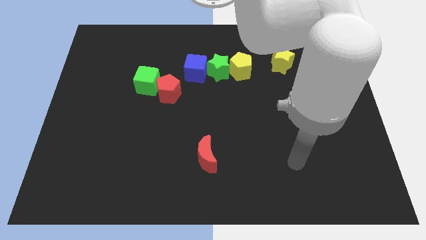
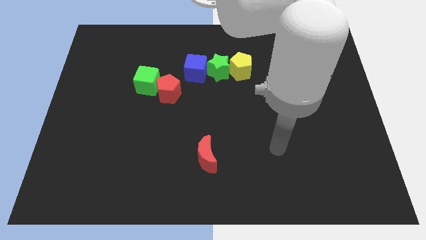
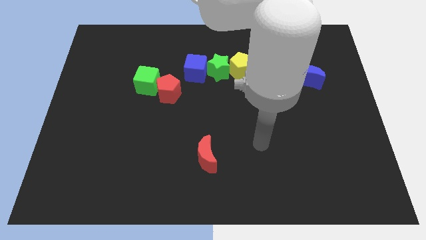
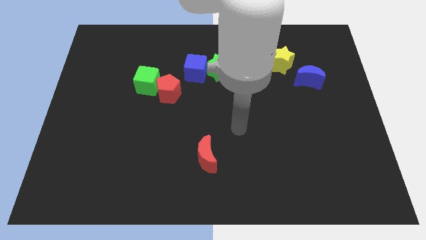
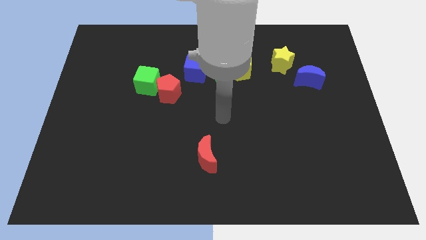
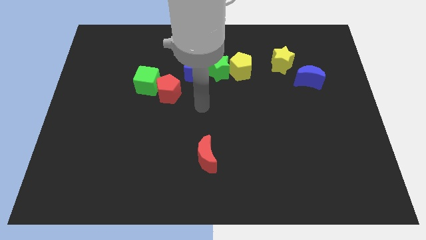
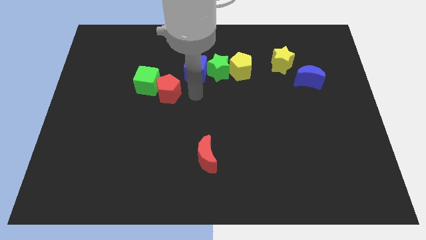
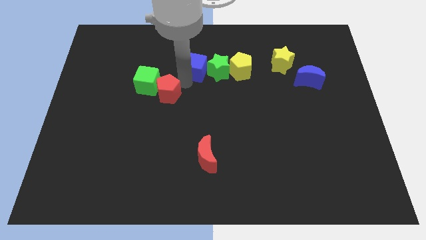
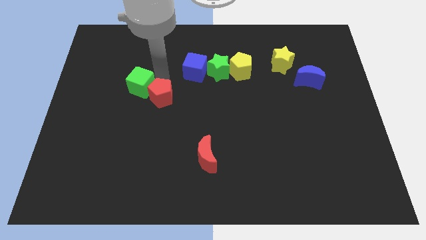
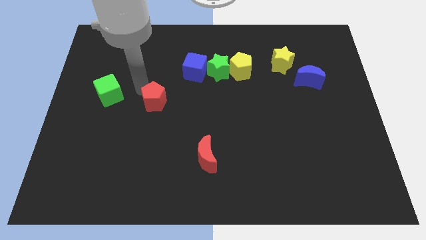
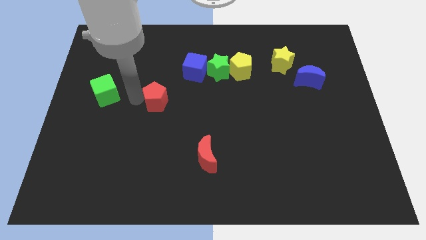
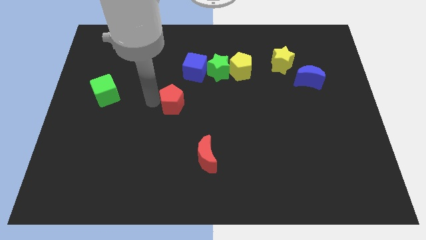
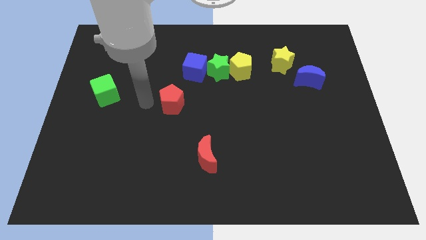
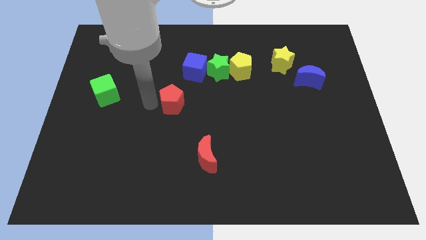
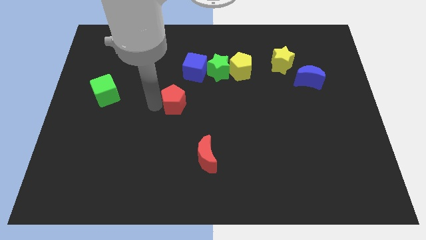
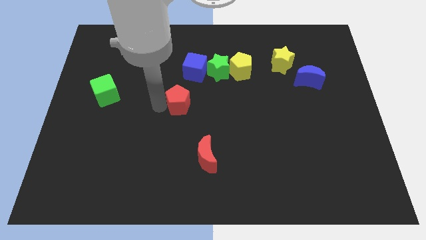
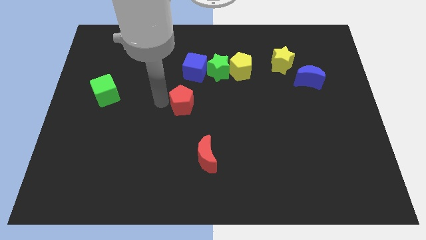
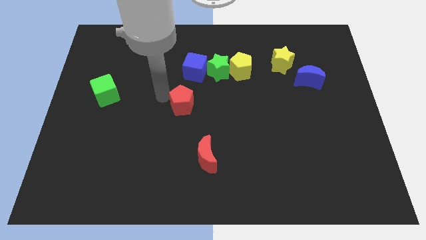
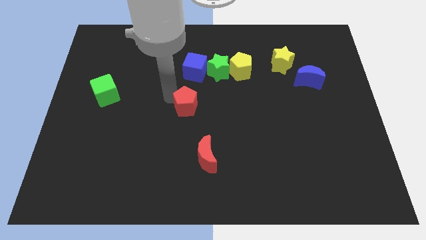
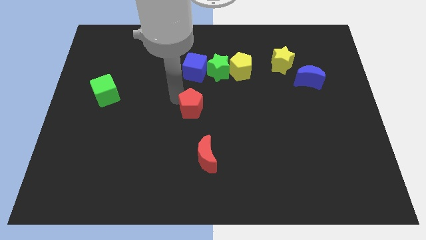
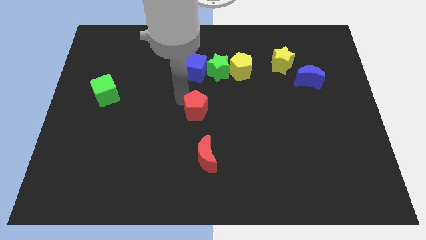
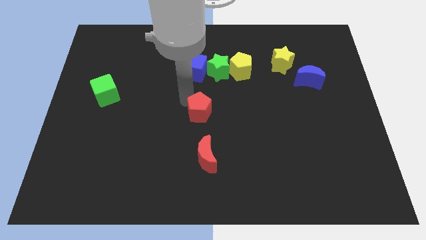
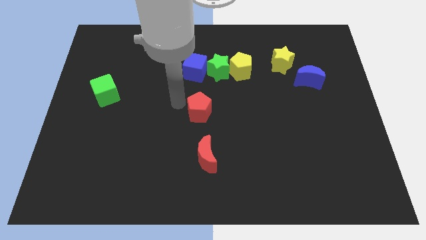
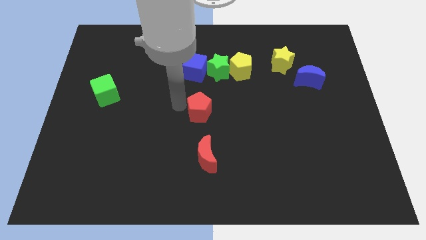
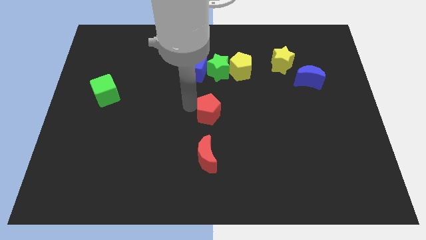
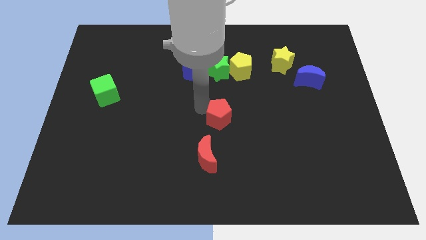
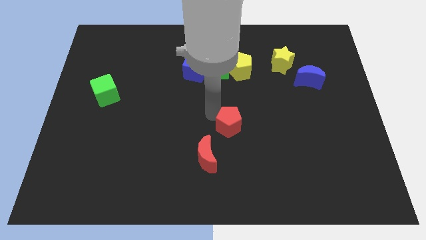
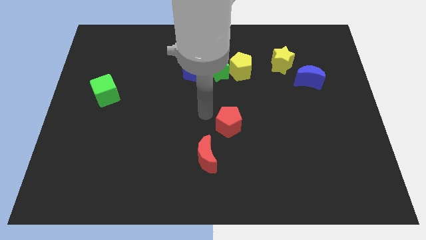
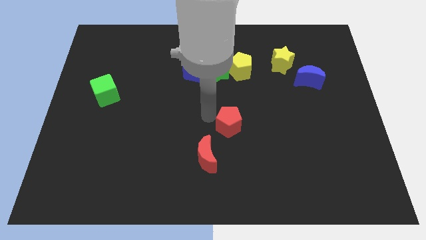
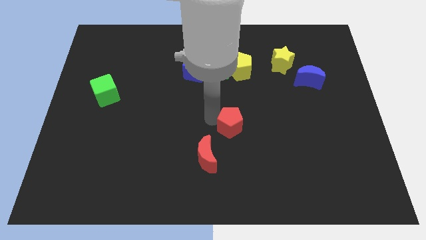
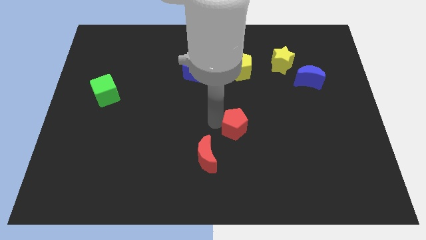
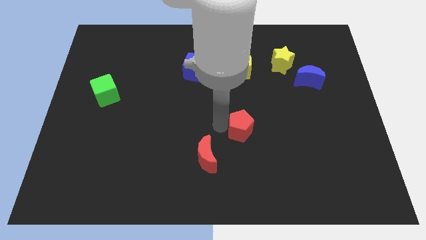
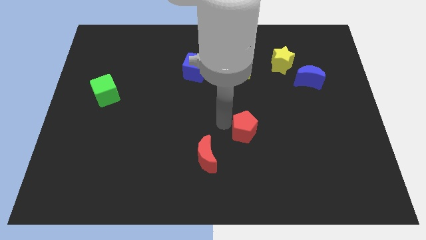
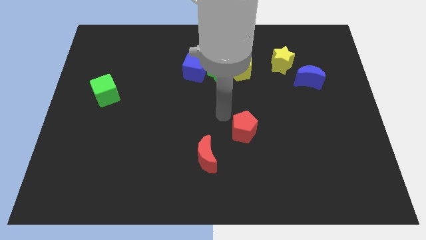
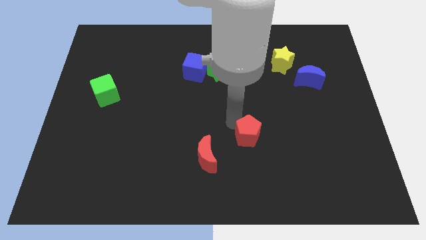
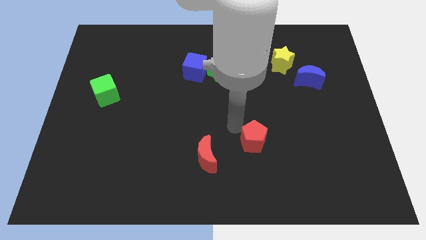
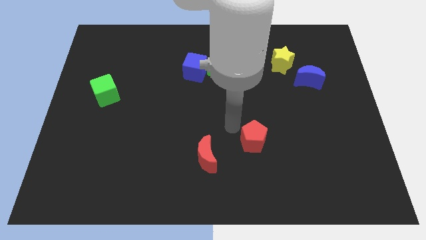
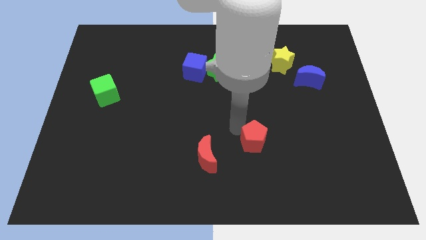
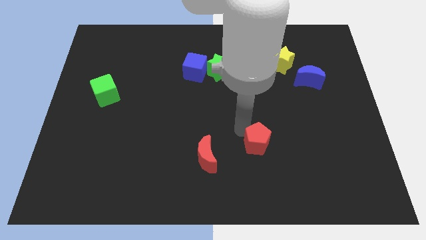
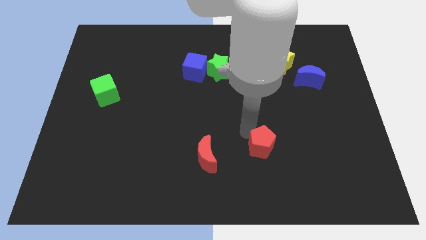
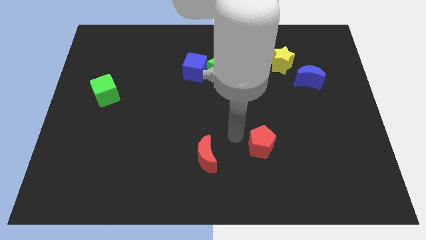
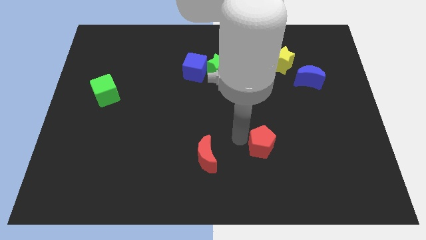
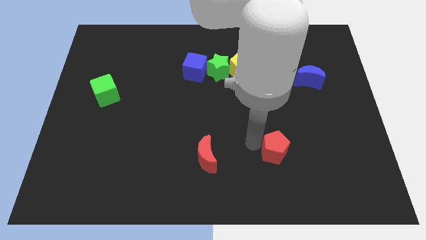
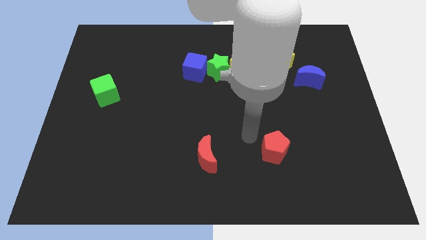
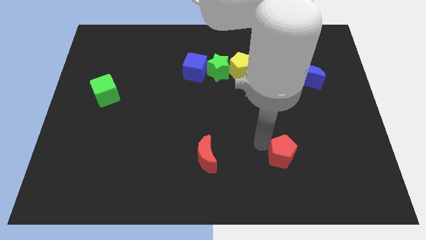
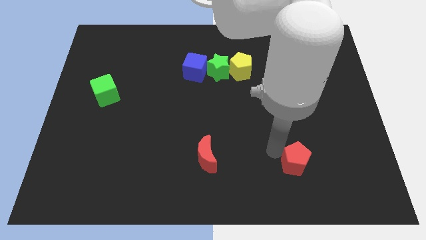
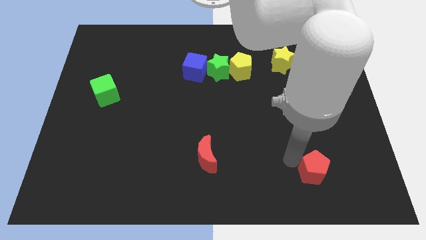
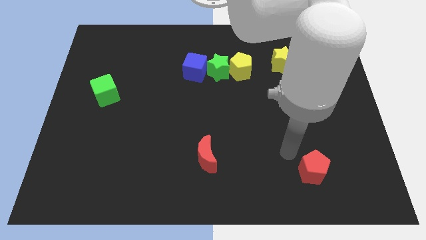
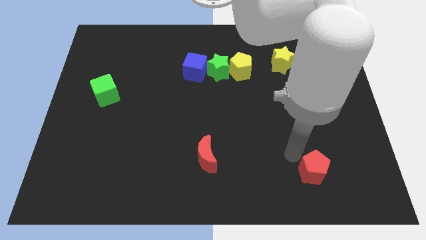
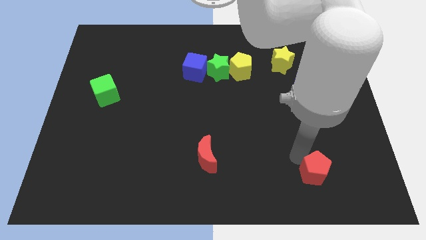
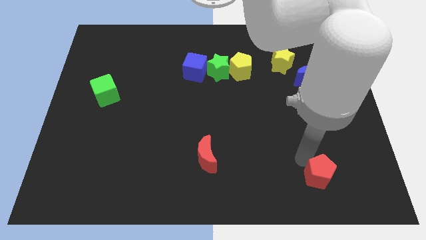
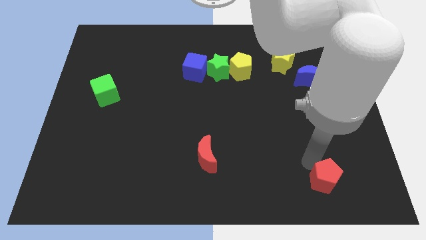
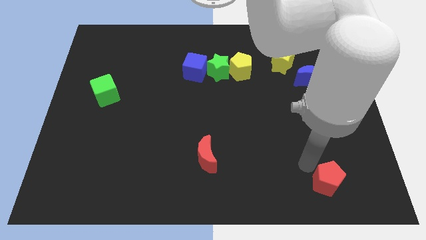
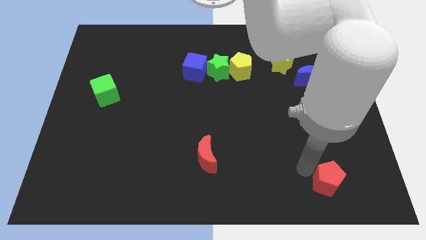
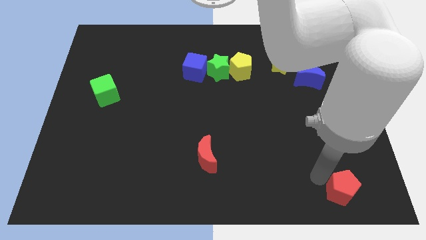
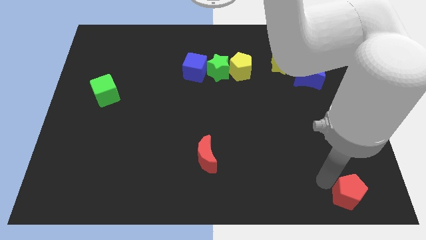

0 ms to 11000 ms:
push the red pentagon to the bottom right
